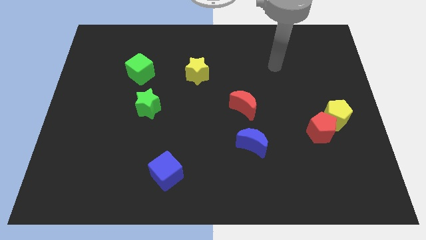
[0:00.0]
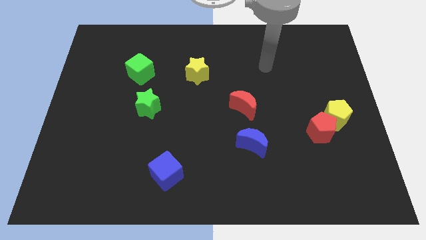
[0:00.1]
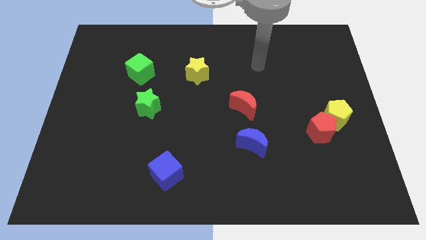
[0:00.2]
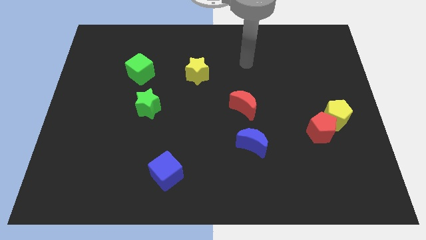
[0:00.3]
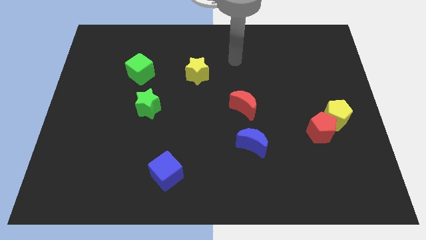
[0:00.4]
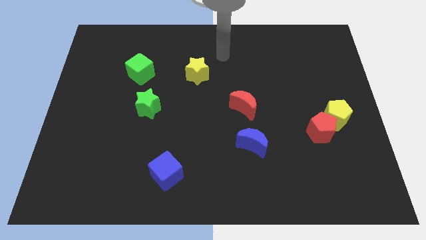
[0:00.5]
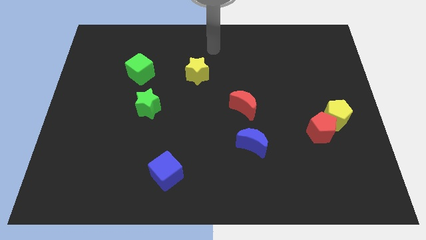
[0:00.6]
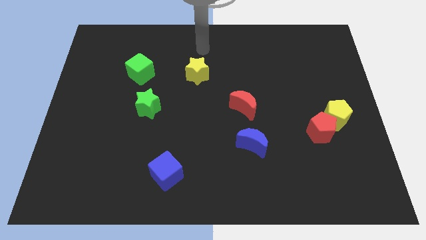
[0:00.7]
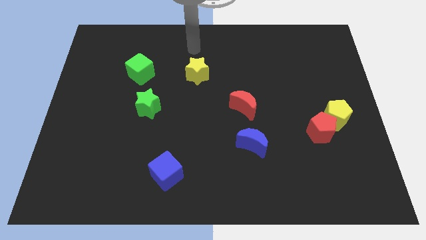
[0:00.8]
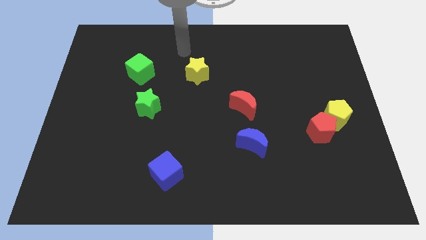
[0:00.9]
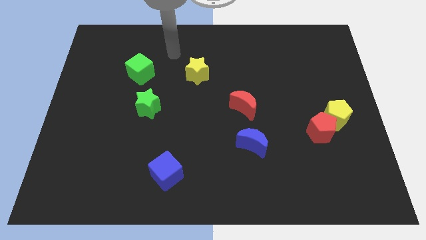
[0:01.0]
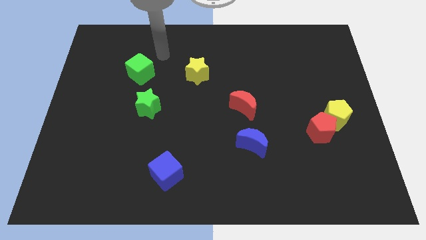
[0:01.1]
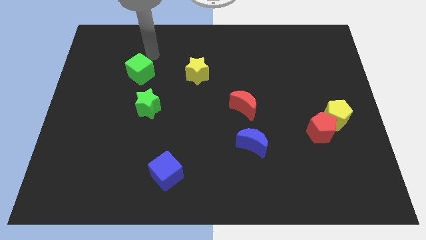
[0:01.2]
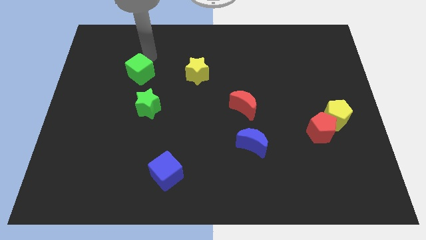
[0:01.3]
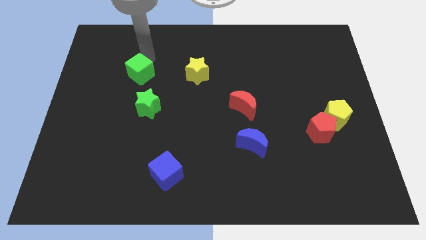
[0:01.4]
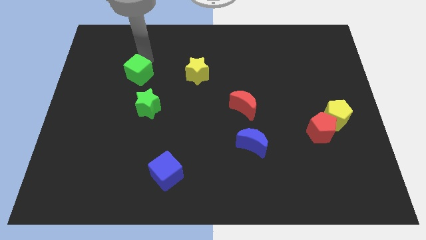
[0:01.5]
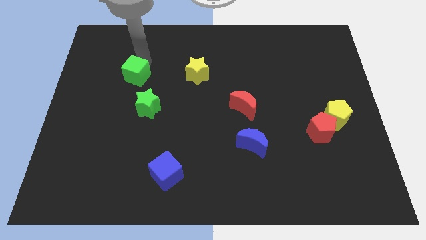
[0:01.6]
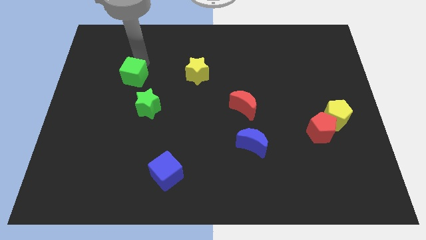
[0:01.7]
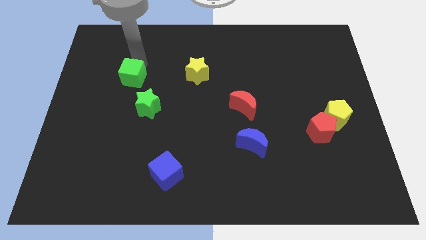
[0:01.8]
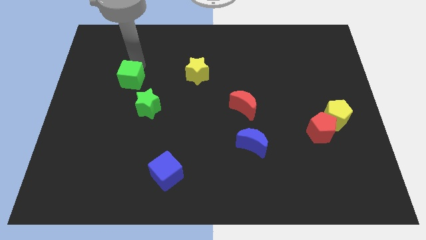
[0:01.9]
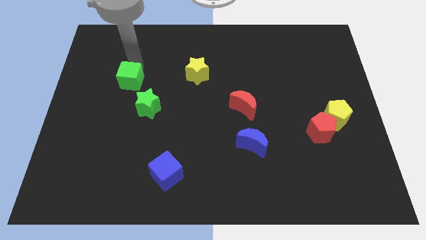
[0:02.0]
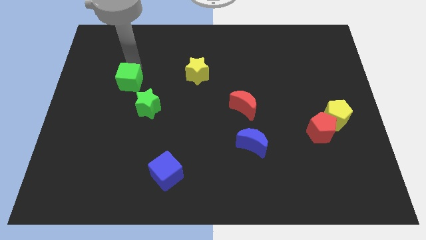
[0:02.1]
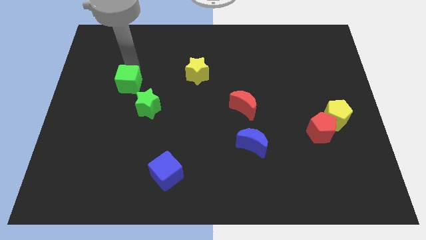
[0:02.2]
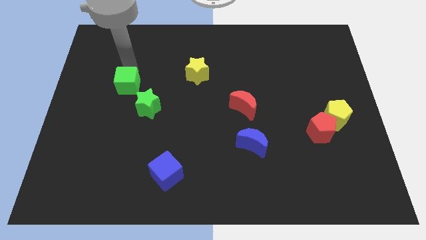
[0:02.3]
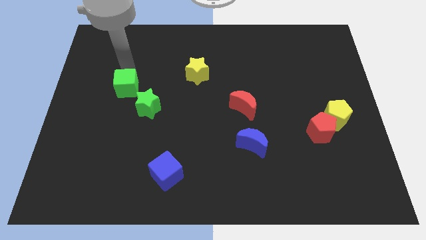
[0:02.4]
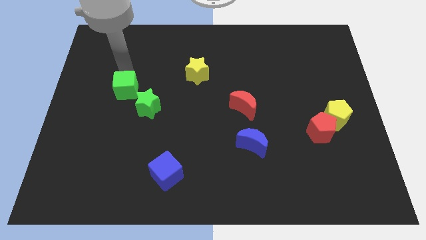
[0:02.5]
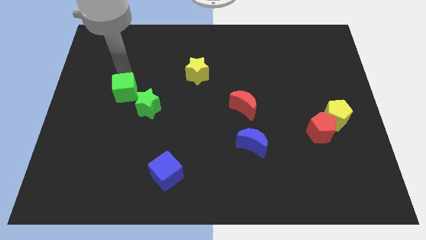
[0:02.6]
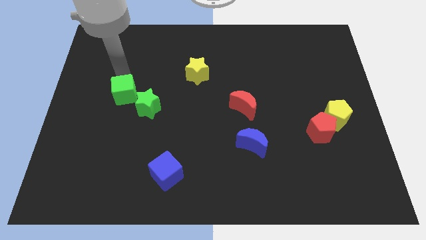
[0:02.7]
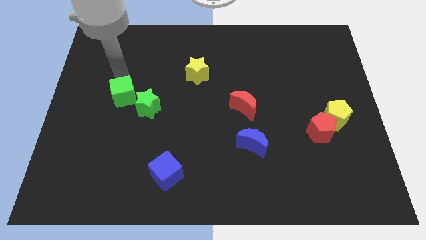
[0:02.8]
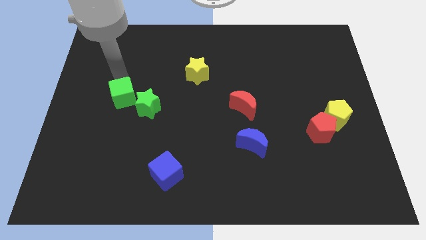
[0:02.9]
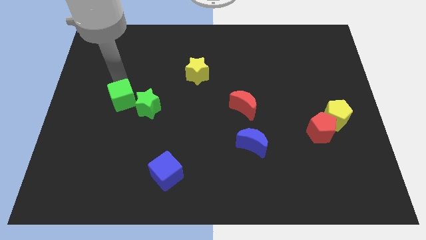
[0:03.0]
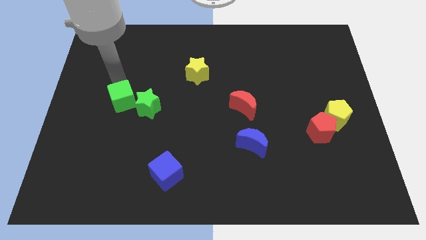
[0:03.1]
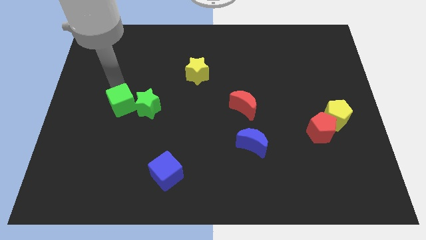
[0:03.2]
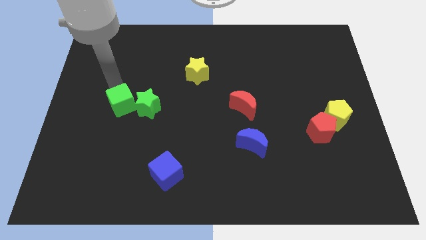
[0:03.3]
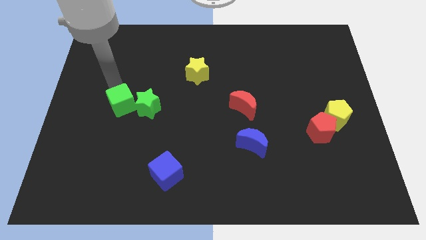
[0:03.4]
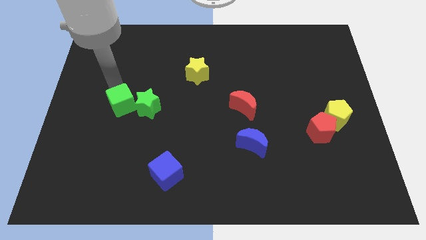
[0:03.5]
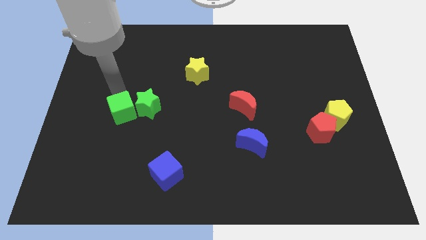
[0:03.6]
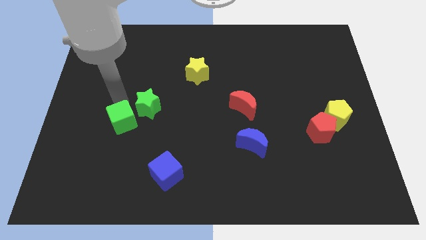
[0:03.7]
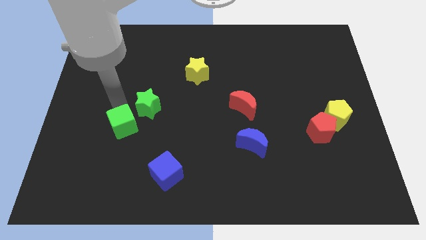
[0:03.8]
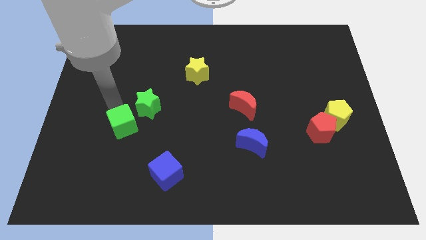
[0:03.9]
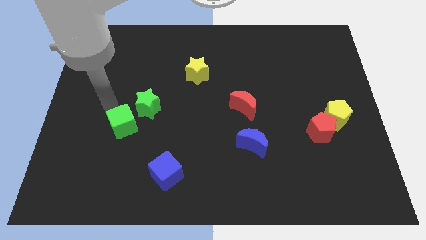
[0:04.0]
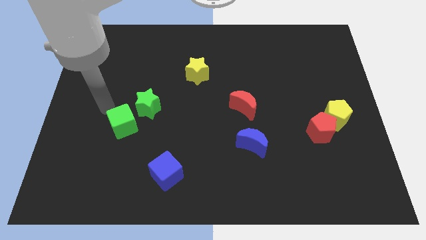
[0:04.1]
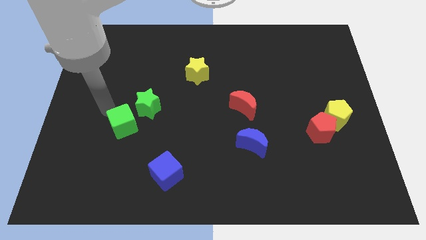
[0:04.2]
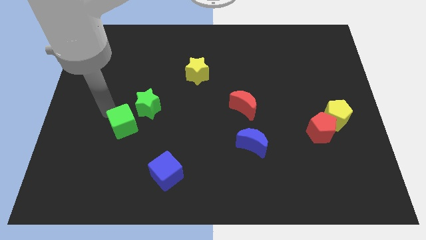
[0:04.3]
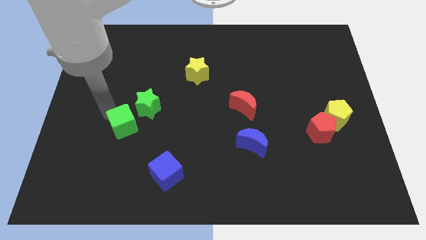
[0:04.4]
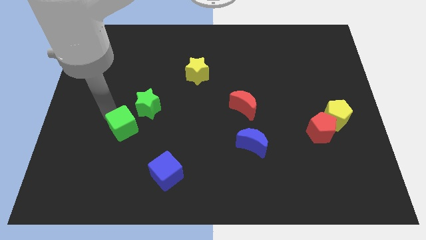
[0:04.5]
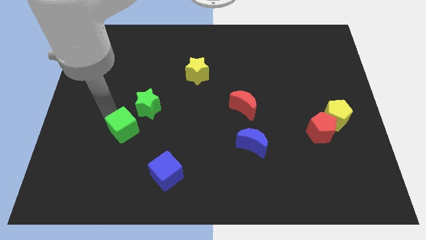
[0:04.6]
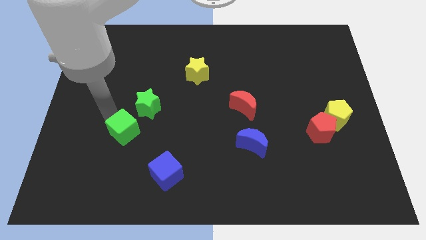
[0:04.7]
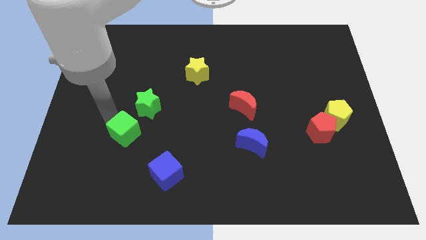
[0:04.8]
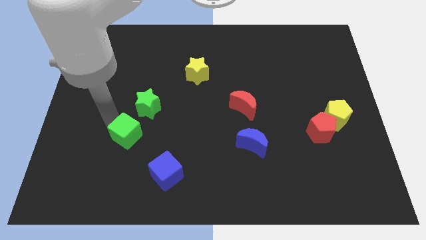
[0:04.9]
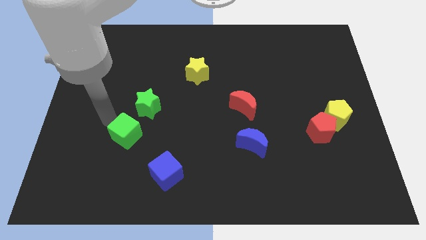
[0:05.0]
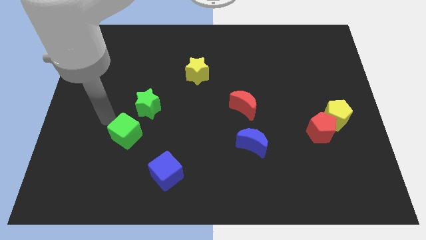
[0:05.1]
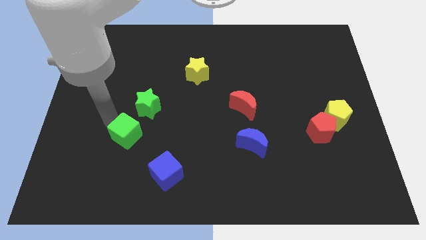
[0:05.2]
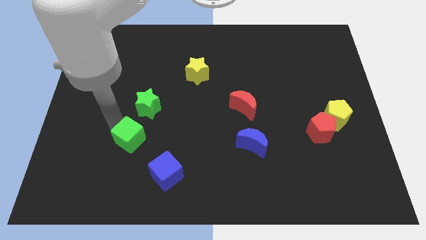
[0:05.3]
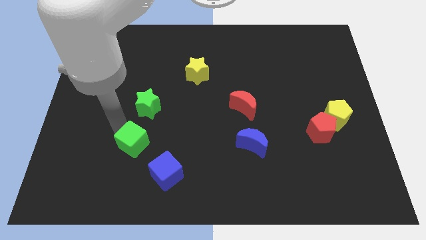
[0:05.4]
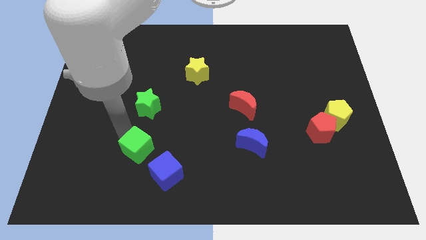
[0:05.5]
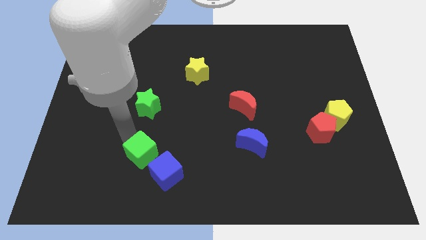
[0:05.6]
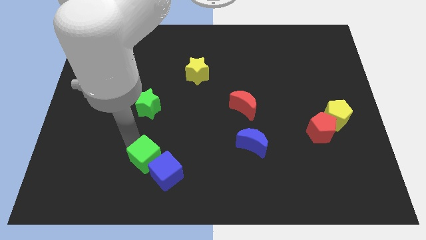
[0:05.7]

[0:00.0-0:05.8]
move the green cube close to the blue cube
